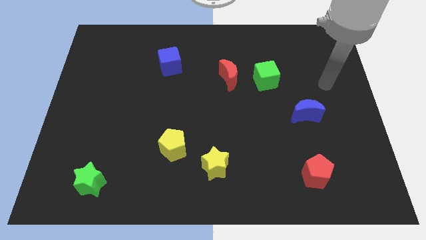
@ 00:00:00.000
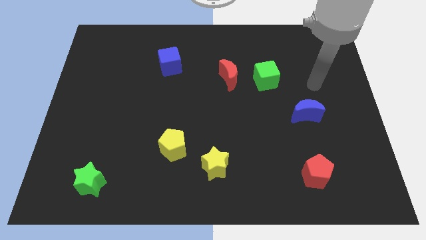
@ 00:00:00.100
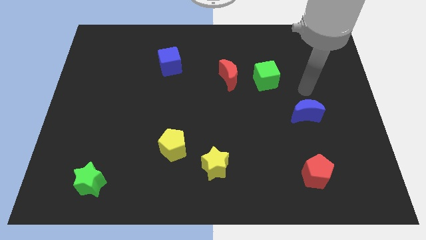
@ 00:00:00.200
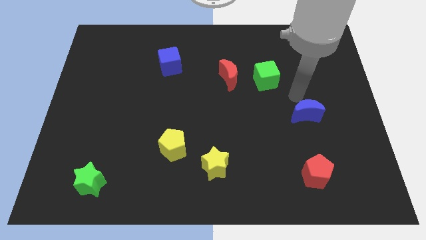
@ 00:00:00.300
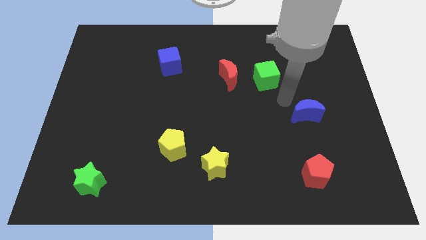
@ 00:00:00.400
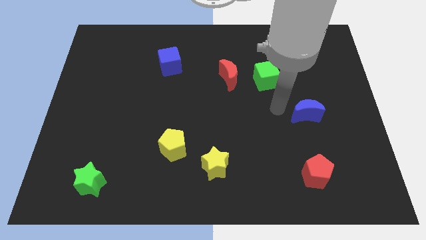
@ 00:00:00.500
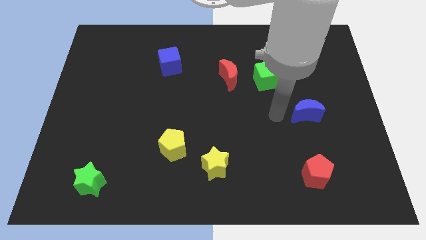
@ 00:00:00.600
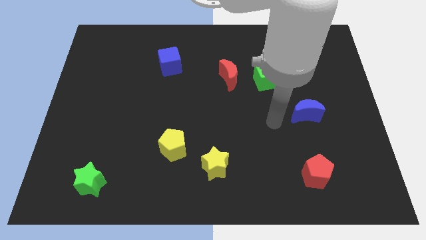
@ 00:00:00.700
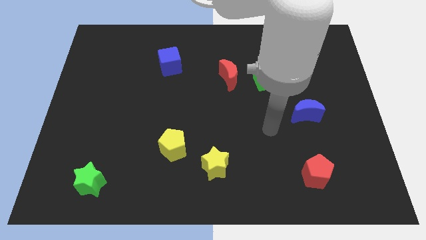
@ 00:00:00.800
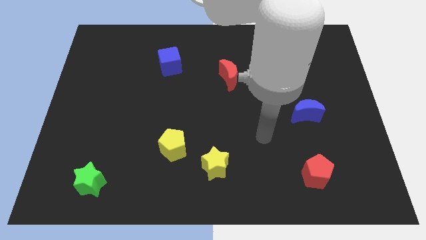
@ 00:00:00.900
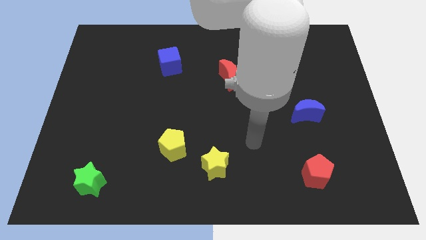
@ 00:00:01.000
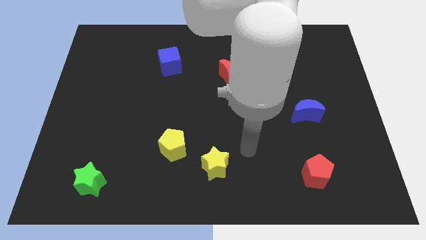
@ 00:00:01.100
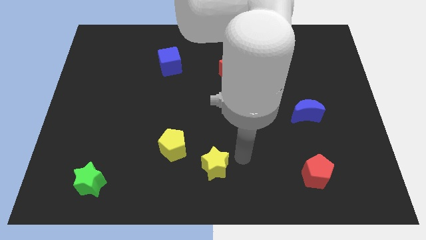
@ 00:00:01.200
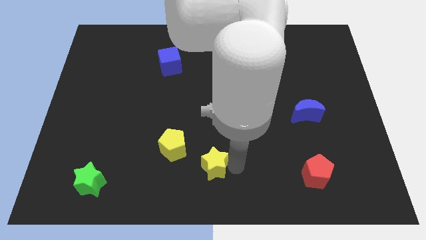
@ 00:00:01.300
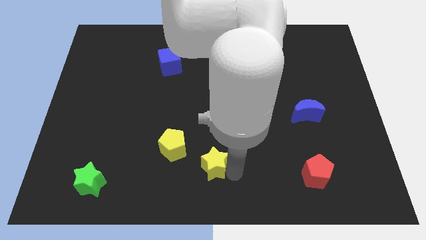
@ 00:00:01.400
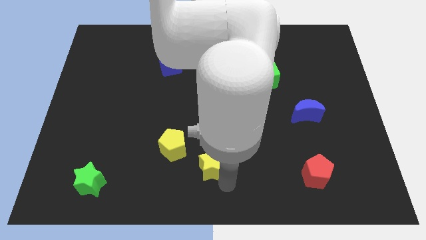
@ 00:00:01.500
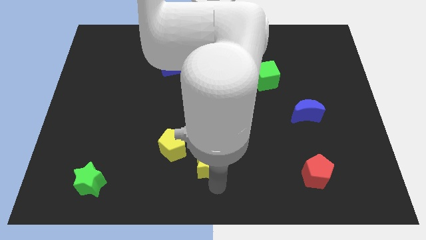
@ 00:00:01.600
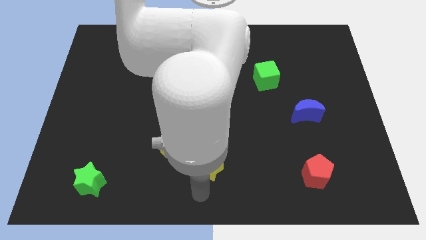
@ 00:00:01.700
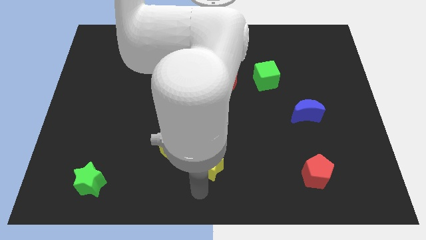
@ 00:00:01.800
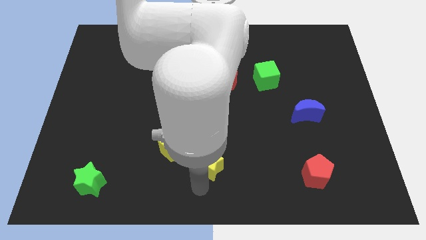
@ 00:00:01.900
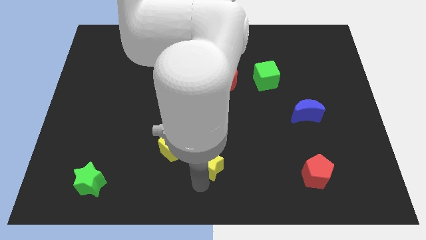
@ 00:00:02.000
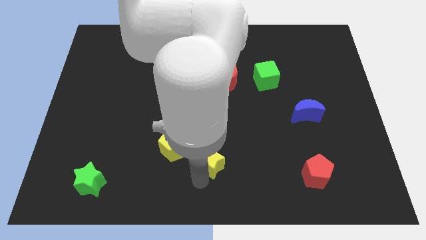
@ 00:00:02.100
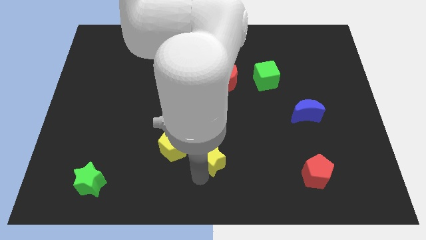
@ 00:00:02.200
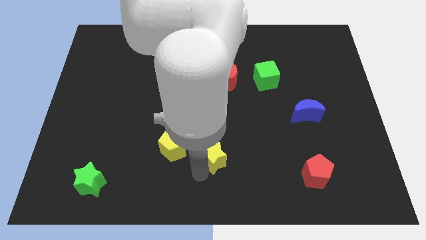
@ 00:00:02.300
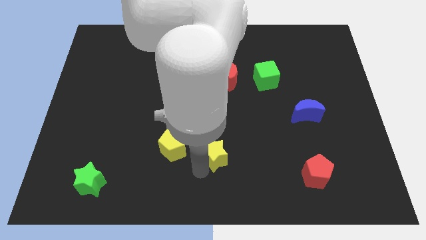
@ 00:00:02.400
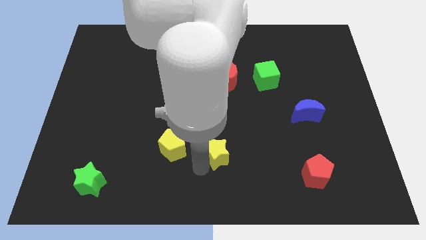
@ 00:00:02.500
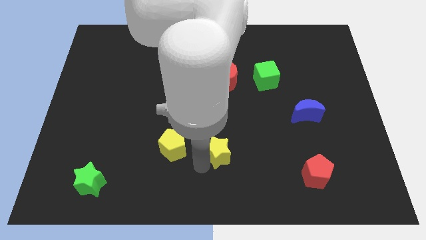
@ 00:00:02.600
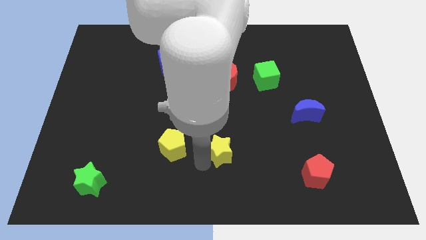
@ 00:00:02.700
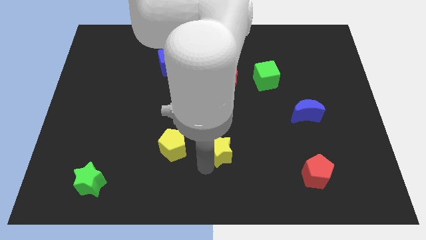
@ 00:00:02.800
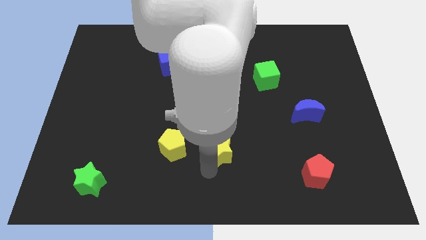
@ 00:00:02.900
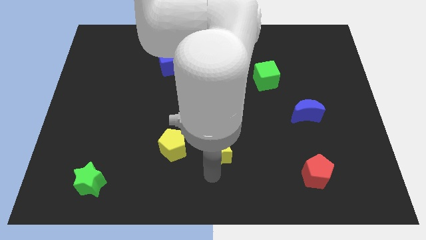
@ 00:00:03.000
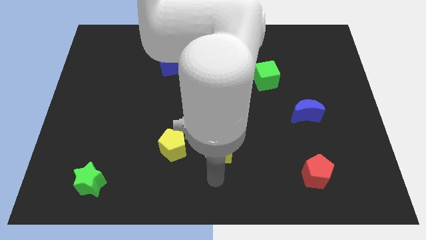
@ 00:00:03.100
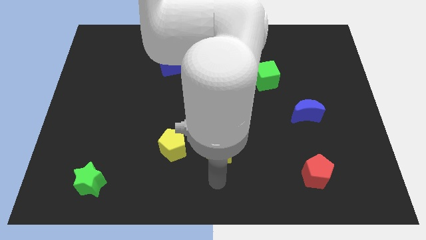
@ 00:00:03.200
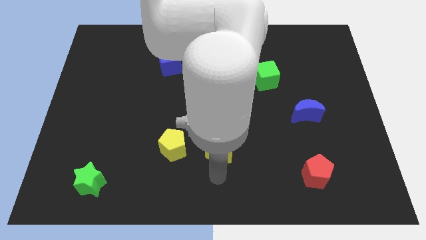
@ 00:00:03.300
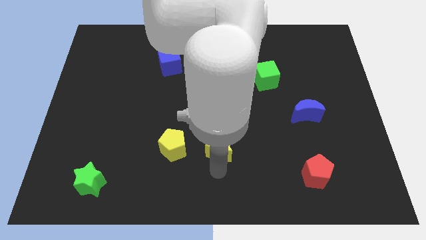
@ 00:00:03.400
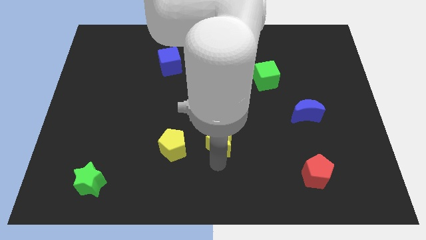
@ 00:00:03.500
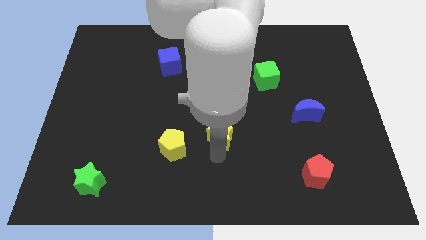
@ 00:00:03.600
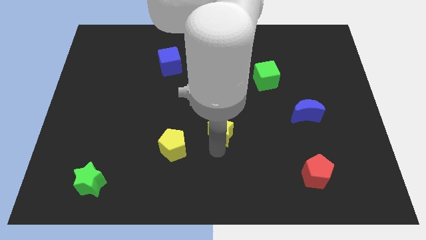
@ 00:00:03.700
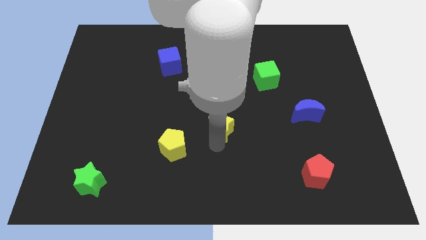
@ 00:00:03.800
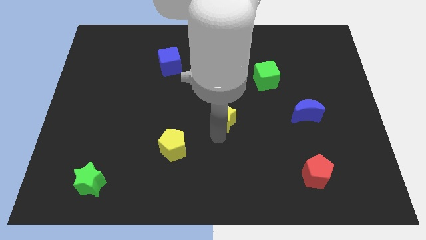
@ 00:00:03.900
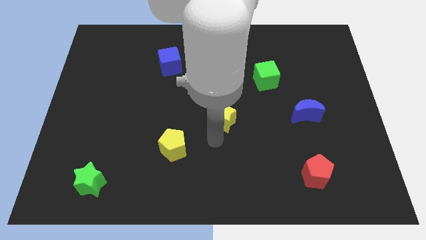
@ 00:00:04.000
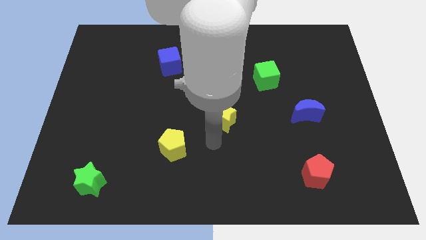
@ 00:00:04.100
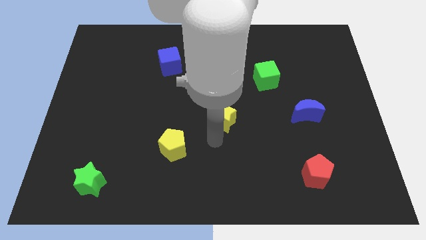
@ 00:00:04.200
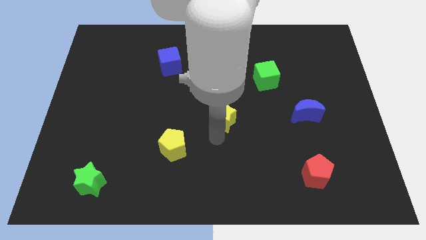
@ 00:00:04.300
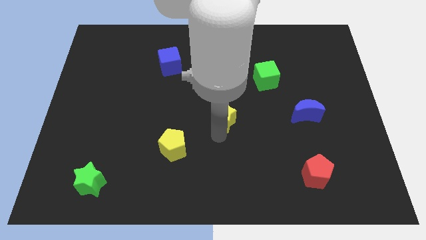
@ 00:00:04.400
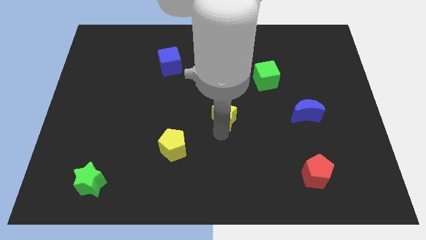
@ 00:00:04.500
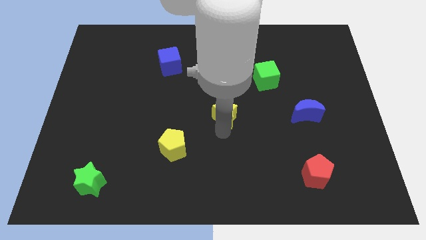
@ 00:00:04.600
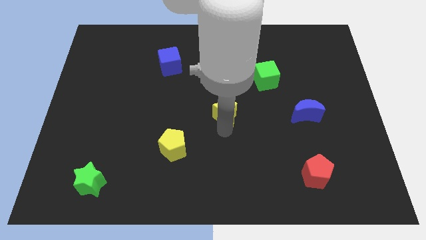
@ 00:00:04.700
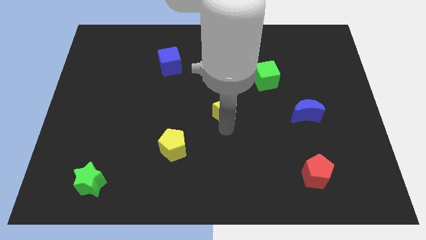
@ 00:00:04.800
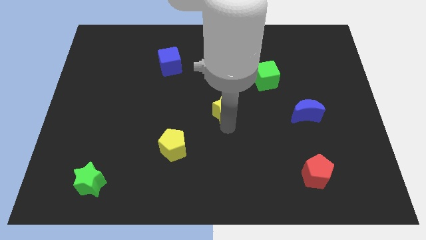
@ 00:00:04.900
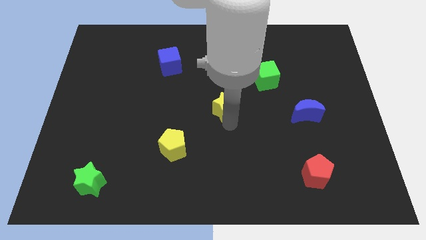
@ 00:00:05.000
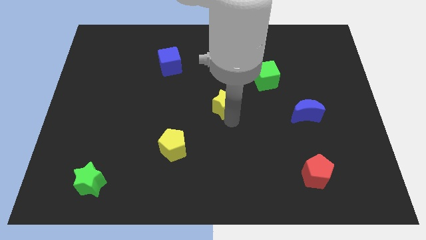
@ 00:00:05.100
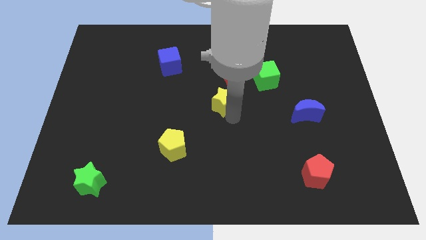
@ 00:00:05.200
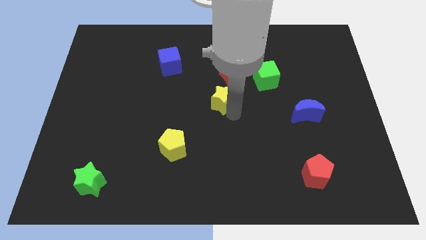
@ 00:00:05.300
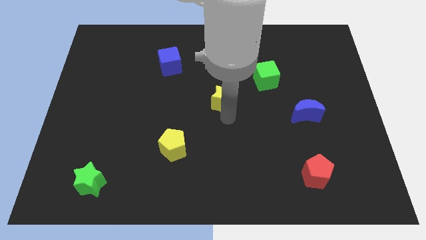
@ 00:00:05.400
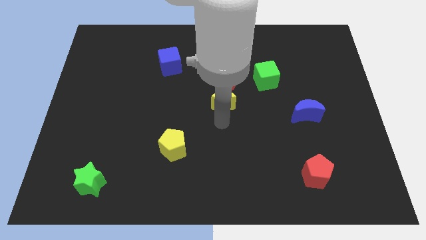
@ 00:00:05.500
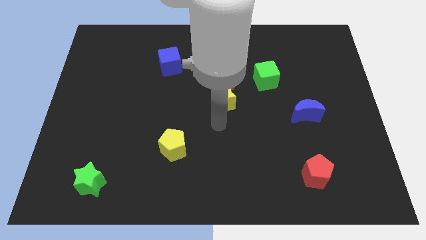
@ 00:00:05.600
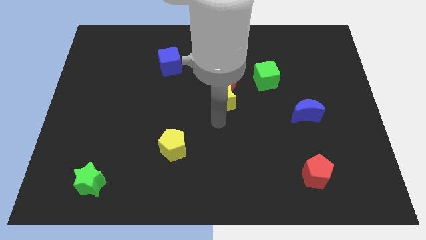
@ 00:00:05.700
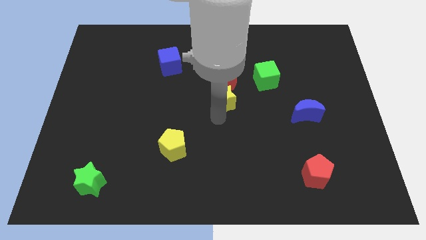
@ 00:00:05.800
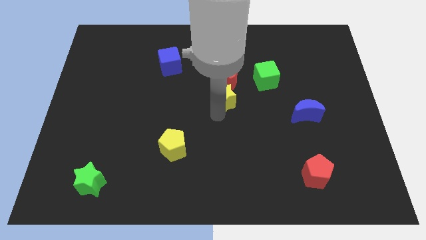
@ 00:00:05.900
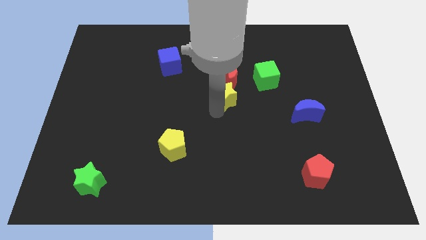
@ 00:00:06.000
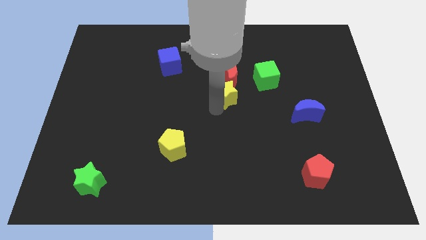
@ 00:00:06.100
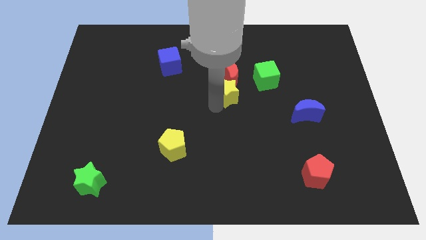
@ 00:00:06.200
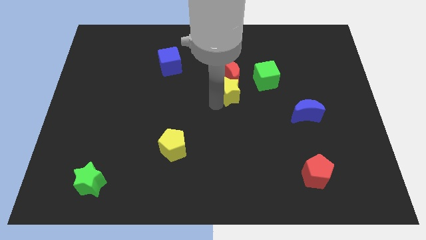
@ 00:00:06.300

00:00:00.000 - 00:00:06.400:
slide the yellow star to the red moon

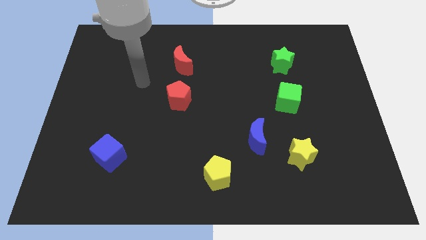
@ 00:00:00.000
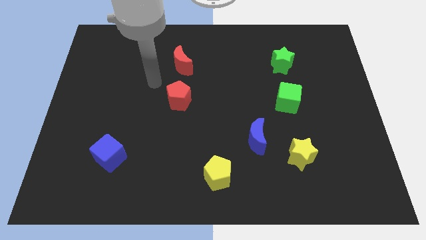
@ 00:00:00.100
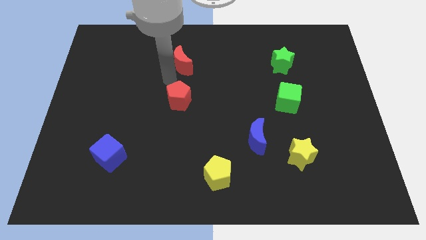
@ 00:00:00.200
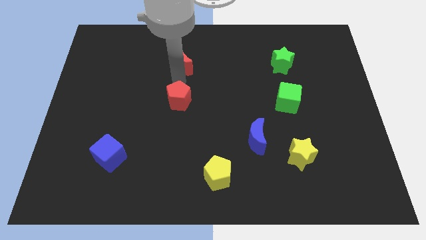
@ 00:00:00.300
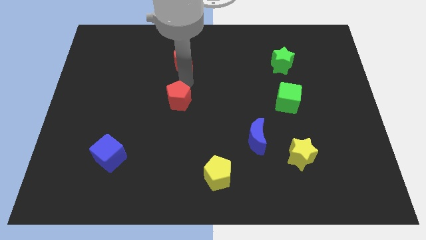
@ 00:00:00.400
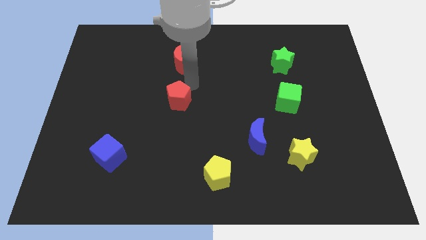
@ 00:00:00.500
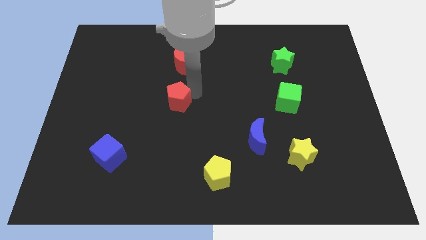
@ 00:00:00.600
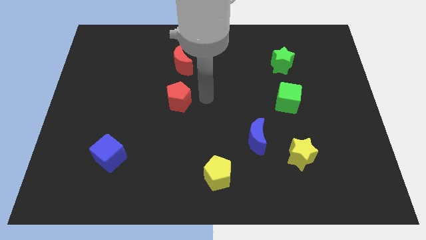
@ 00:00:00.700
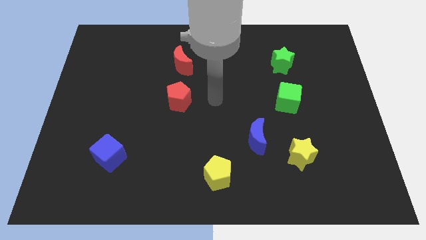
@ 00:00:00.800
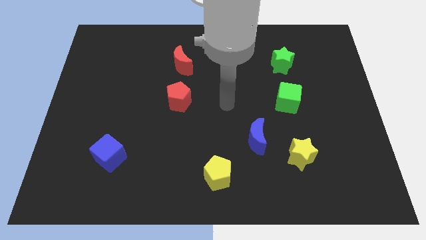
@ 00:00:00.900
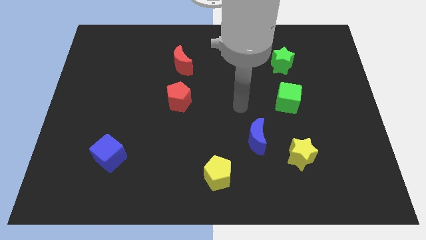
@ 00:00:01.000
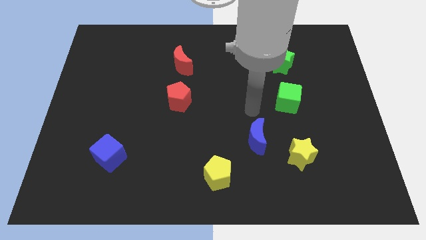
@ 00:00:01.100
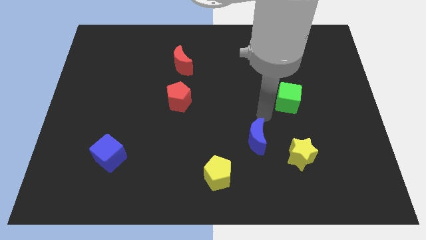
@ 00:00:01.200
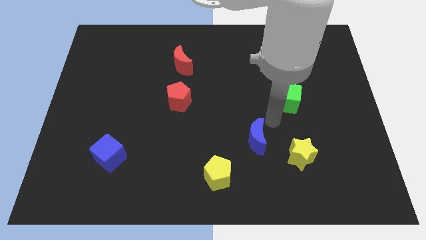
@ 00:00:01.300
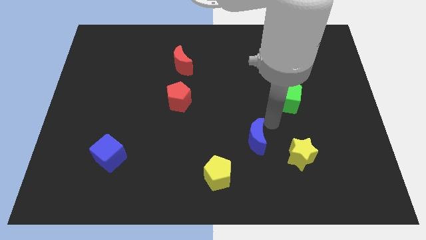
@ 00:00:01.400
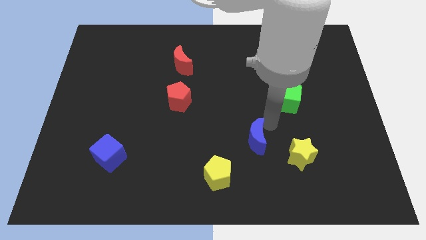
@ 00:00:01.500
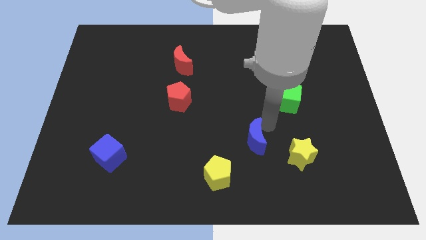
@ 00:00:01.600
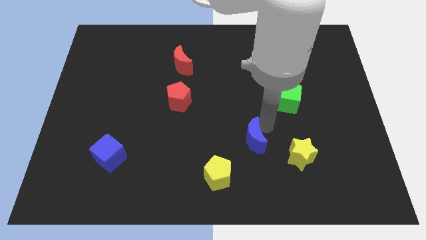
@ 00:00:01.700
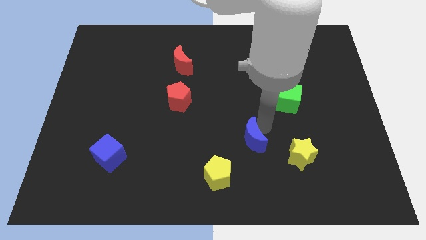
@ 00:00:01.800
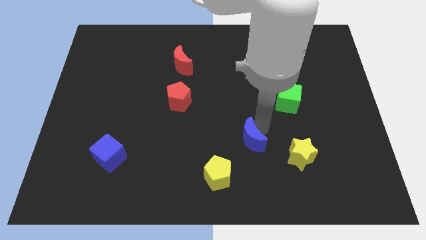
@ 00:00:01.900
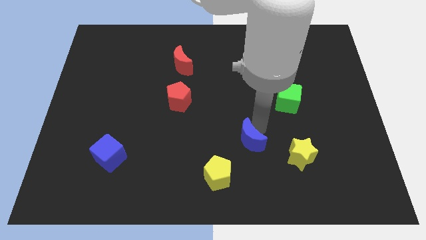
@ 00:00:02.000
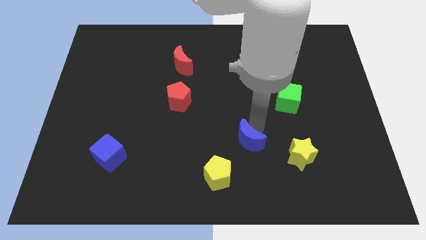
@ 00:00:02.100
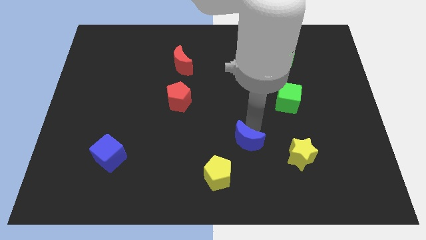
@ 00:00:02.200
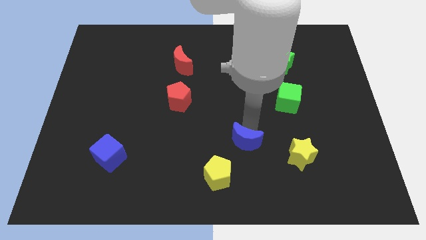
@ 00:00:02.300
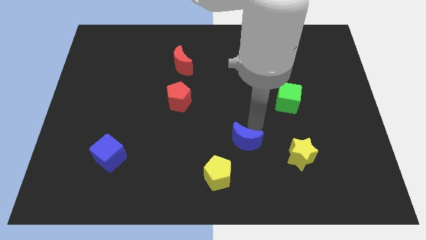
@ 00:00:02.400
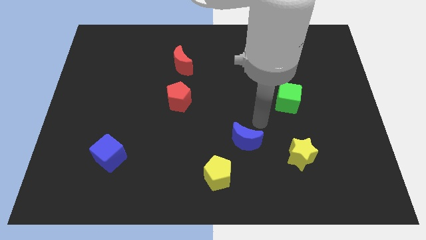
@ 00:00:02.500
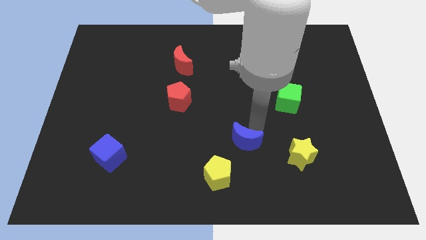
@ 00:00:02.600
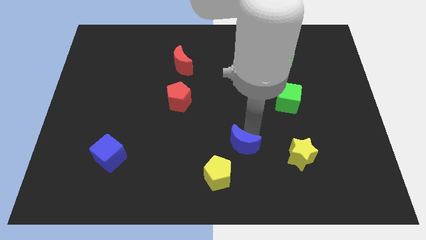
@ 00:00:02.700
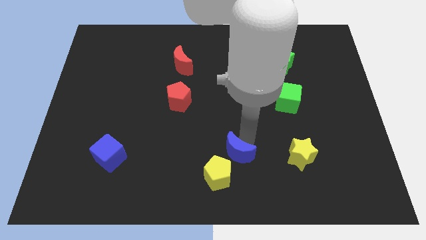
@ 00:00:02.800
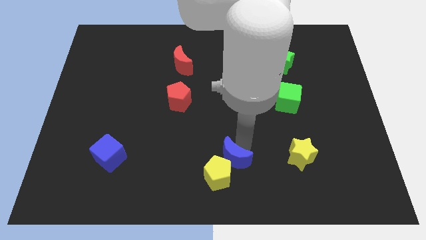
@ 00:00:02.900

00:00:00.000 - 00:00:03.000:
slide the blue moon next to the yellow pentagon
